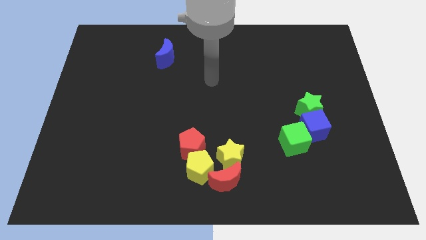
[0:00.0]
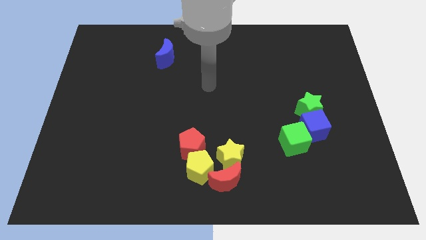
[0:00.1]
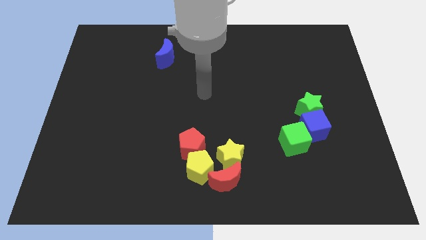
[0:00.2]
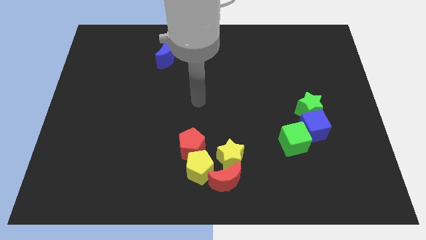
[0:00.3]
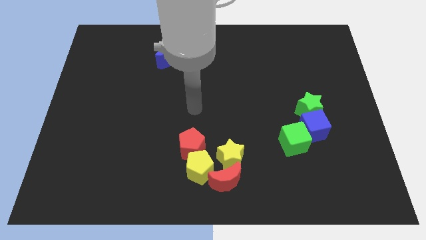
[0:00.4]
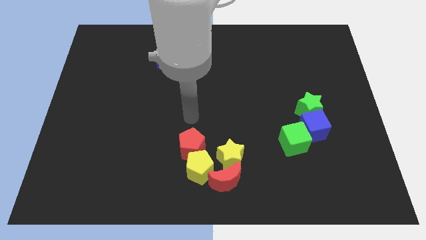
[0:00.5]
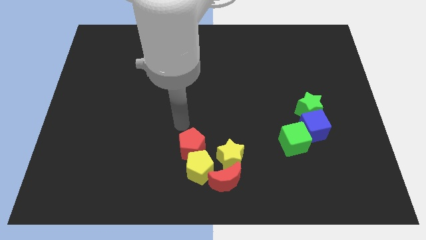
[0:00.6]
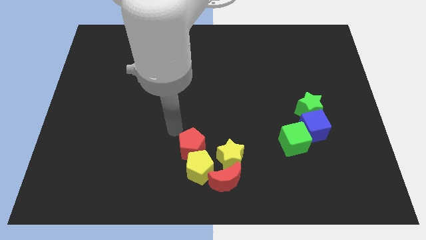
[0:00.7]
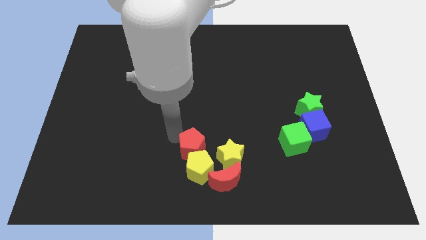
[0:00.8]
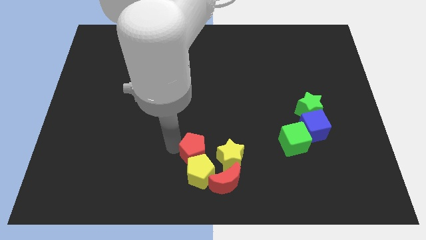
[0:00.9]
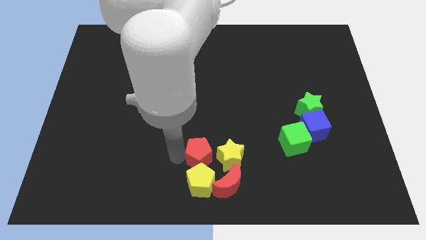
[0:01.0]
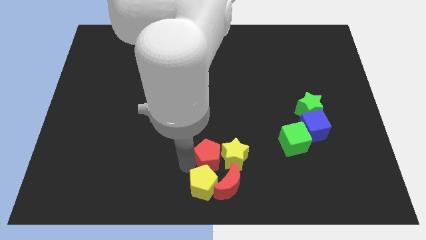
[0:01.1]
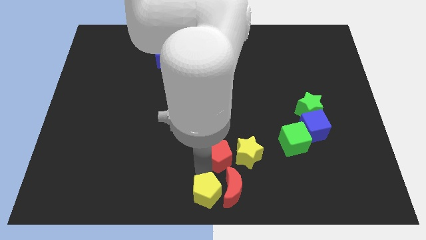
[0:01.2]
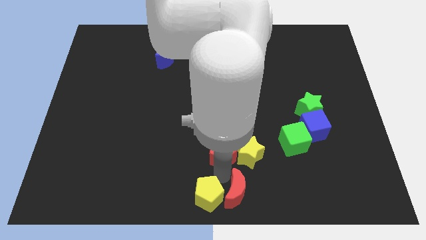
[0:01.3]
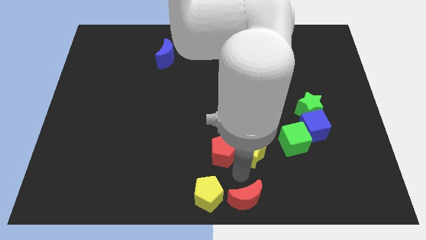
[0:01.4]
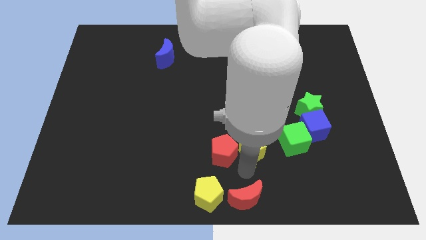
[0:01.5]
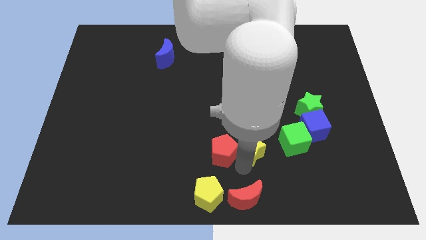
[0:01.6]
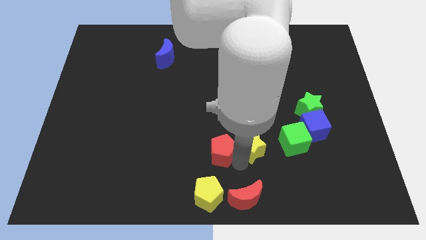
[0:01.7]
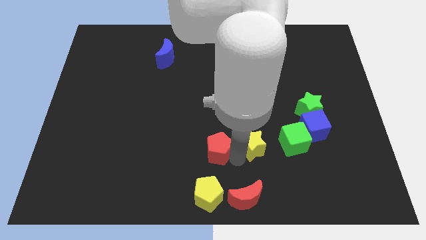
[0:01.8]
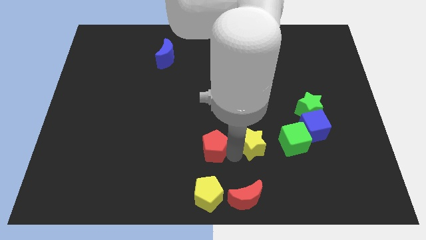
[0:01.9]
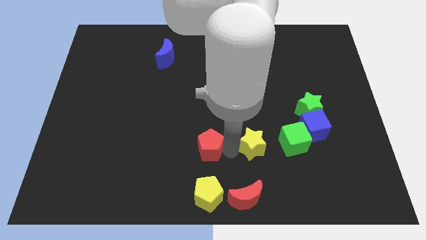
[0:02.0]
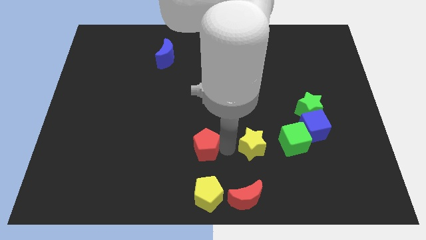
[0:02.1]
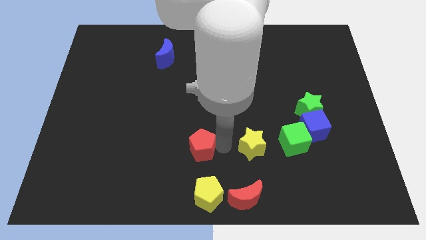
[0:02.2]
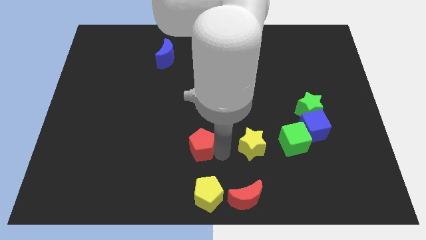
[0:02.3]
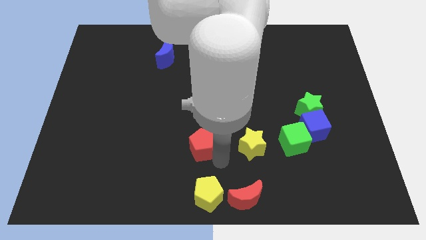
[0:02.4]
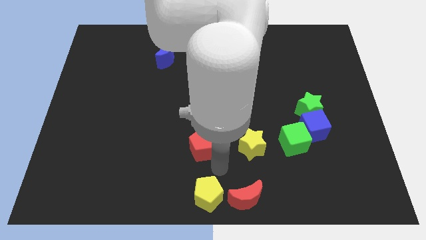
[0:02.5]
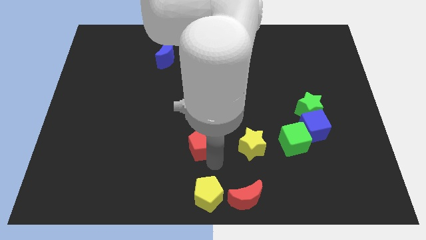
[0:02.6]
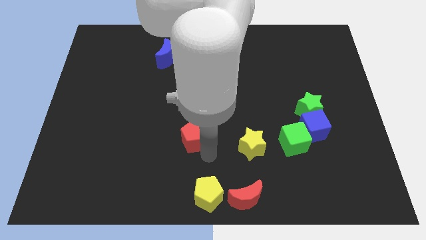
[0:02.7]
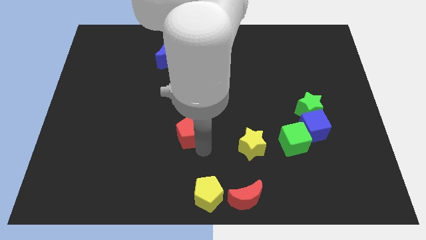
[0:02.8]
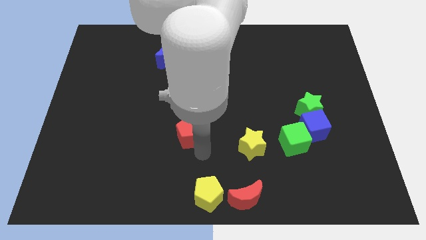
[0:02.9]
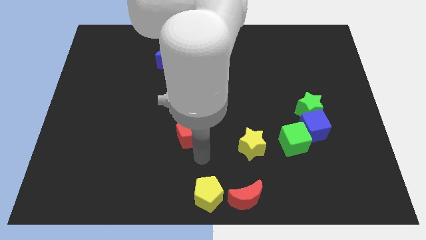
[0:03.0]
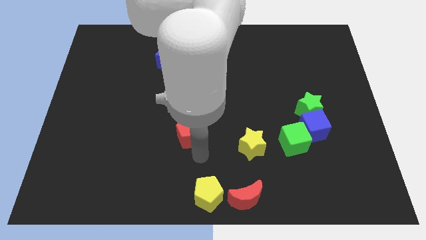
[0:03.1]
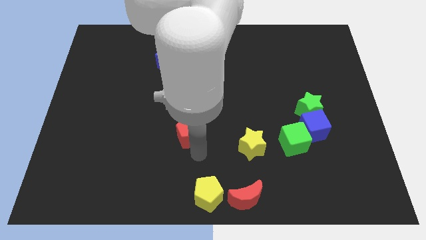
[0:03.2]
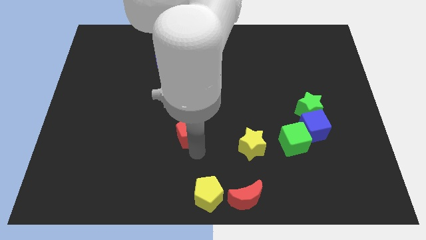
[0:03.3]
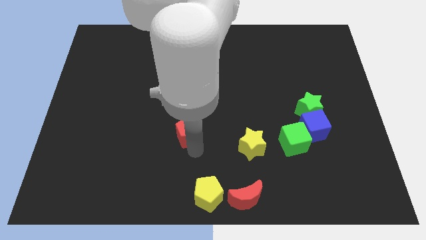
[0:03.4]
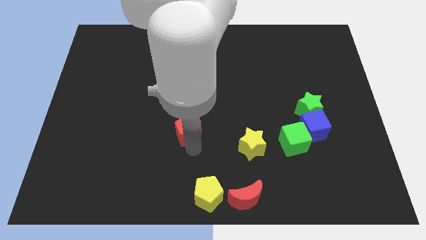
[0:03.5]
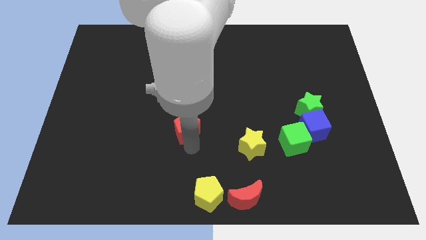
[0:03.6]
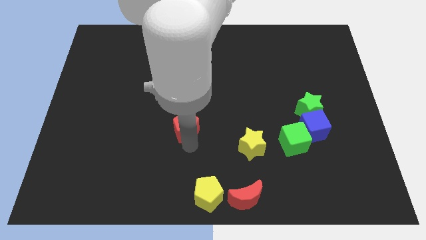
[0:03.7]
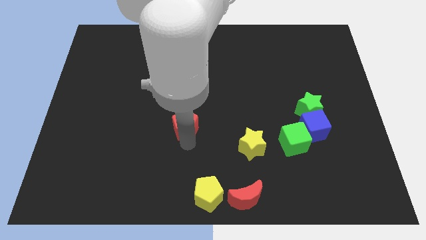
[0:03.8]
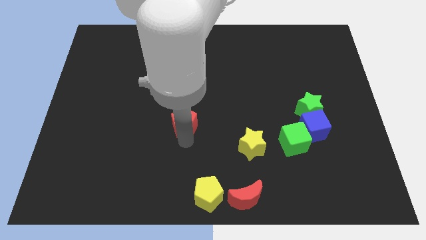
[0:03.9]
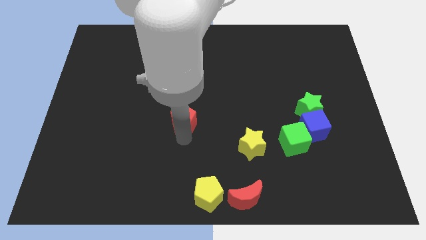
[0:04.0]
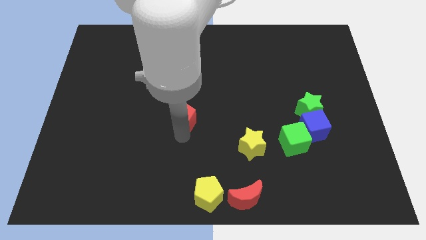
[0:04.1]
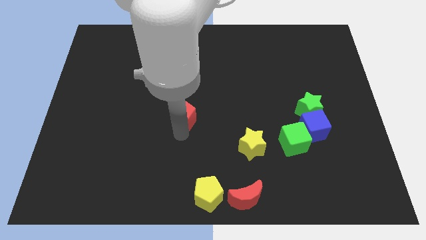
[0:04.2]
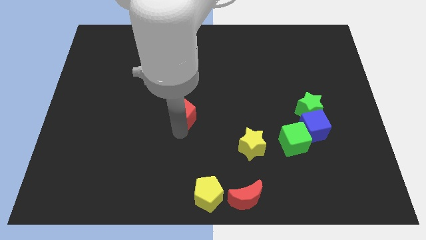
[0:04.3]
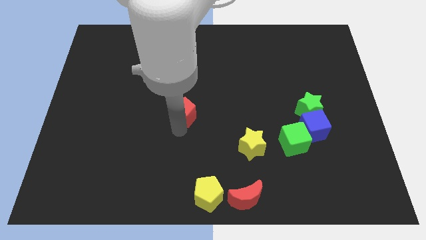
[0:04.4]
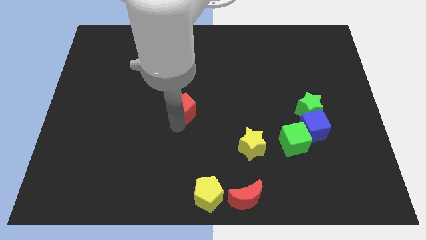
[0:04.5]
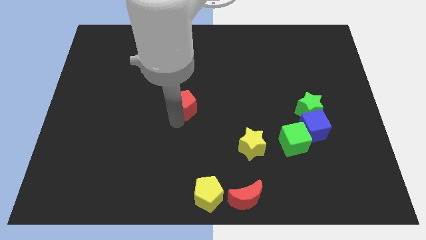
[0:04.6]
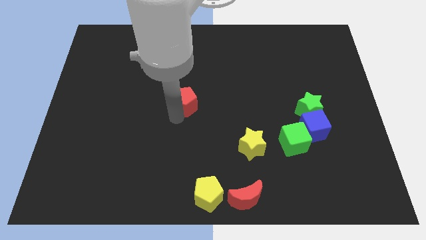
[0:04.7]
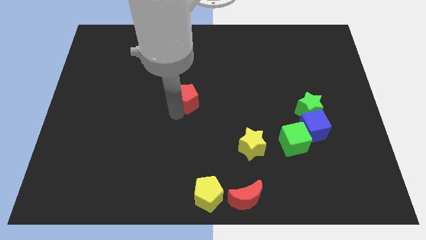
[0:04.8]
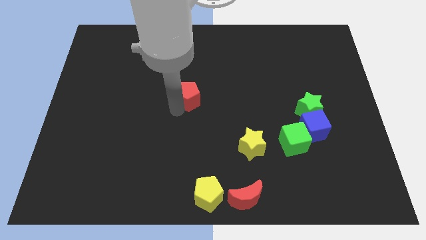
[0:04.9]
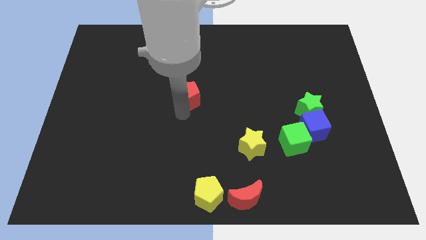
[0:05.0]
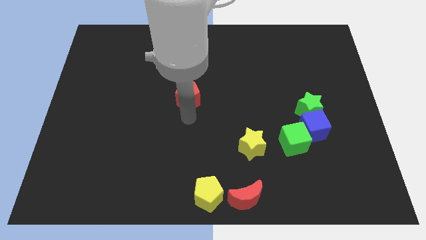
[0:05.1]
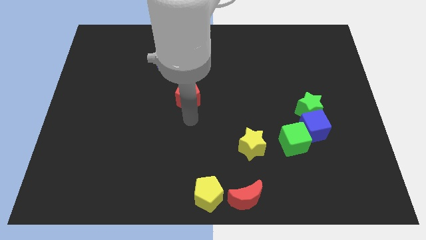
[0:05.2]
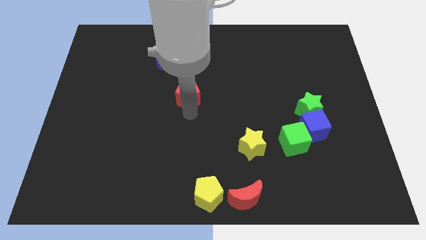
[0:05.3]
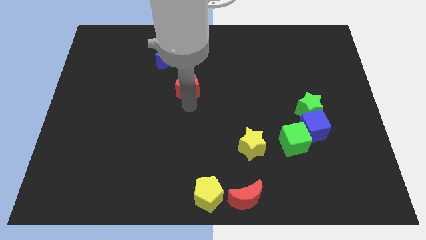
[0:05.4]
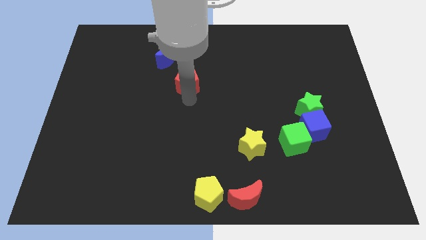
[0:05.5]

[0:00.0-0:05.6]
push the red pentagon to the bottom right side of the blue moon

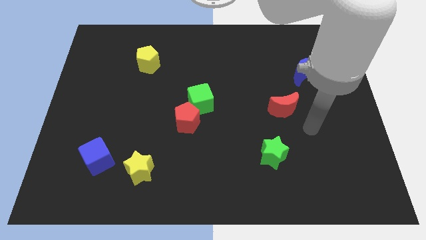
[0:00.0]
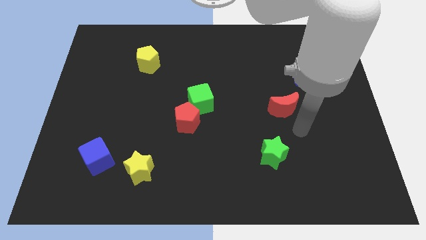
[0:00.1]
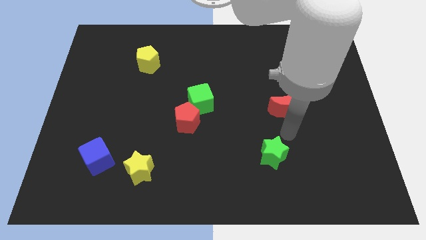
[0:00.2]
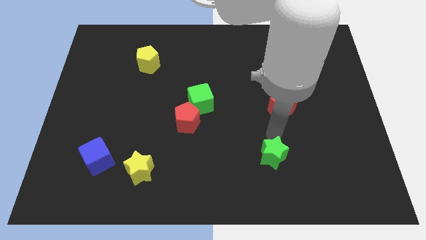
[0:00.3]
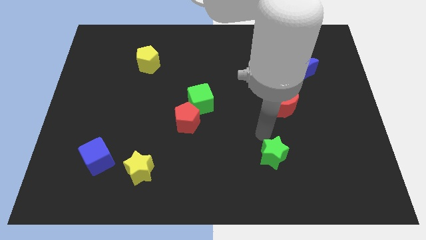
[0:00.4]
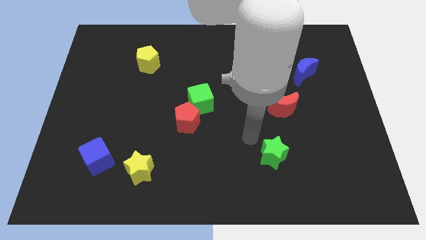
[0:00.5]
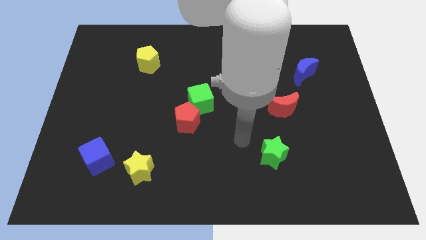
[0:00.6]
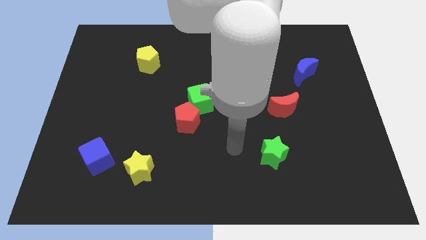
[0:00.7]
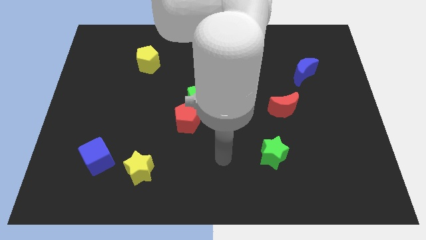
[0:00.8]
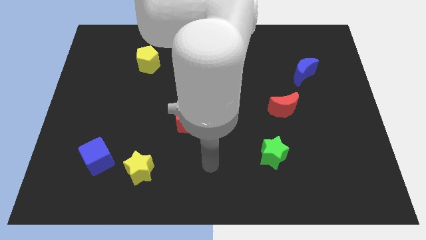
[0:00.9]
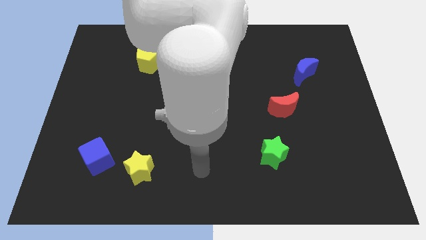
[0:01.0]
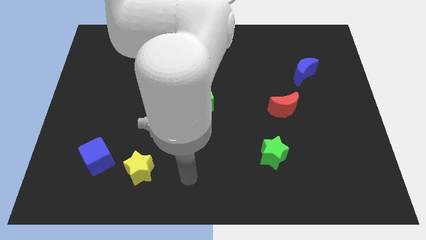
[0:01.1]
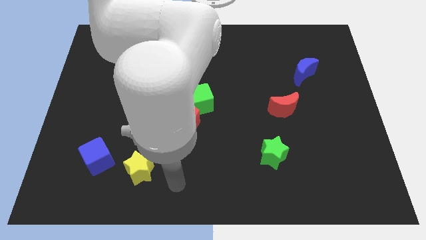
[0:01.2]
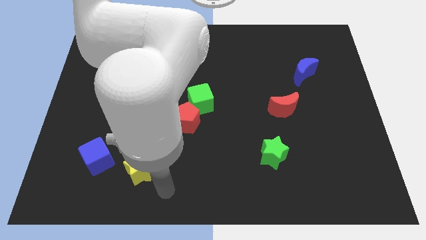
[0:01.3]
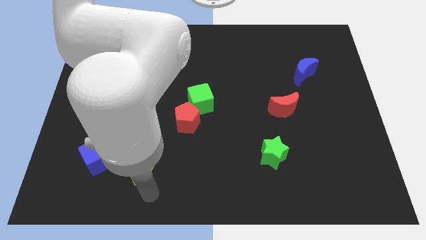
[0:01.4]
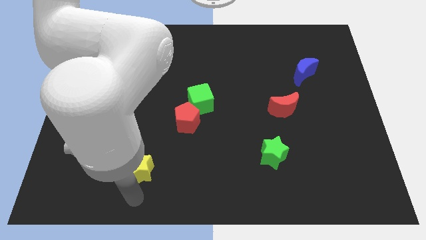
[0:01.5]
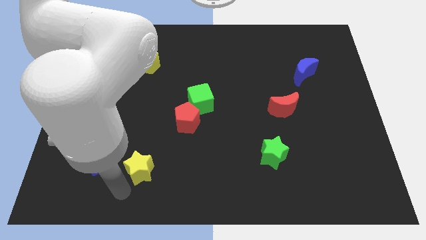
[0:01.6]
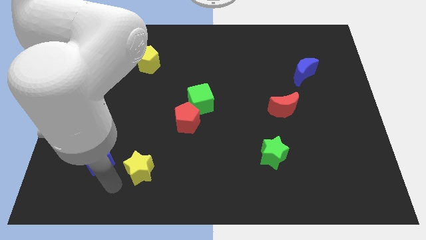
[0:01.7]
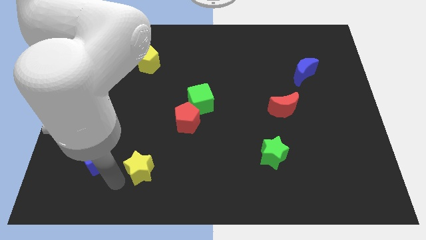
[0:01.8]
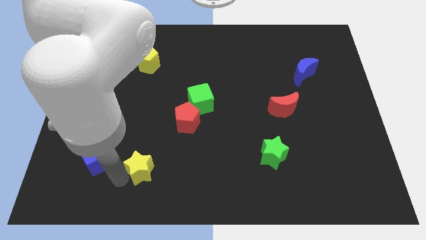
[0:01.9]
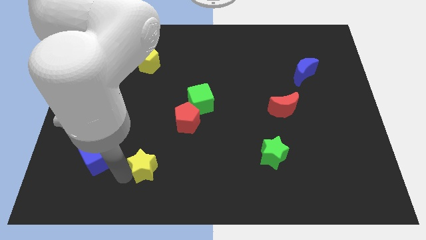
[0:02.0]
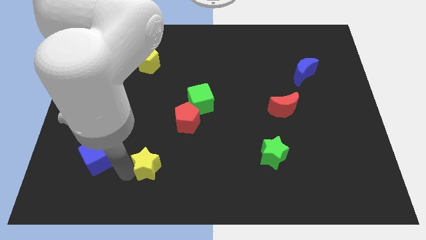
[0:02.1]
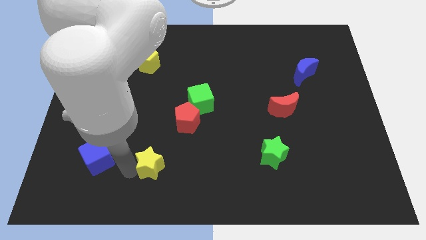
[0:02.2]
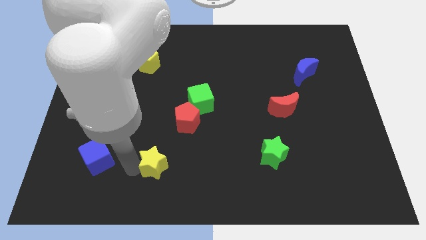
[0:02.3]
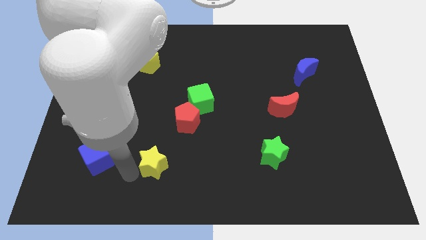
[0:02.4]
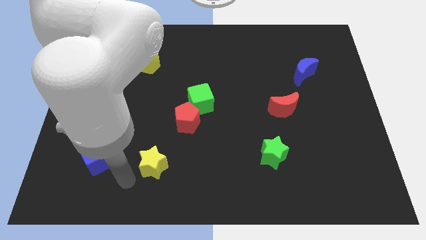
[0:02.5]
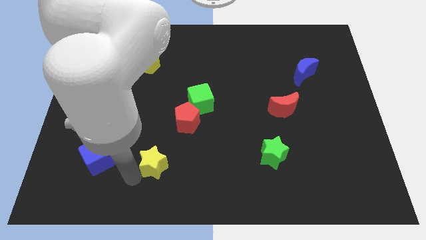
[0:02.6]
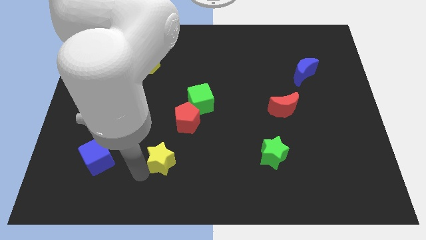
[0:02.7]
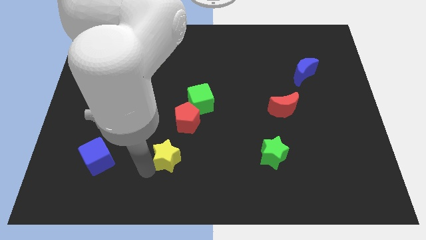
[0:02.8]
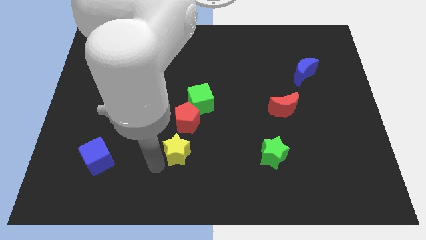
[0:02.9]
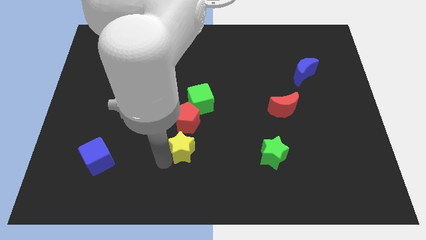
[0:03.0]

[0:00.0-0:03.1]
put the yellow star to the bottom side of the green cube
